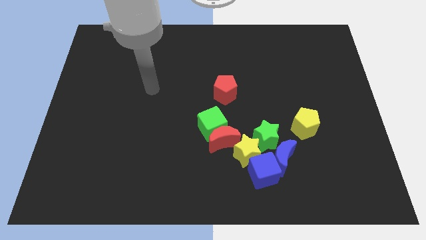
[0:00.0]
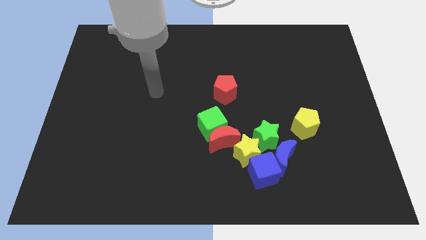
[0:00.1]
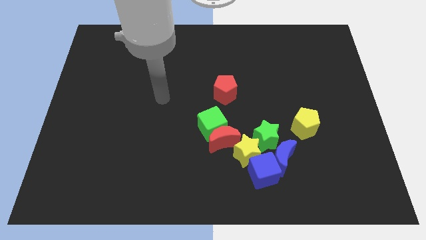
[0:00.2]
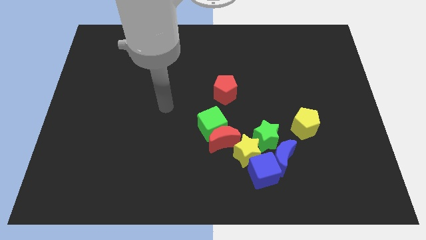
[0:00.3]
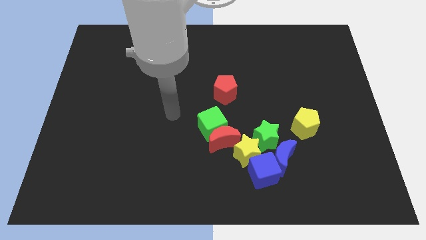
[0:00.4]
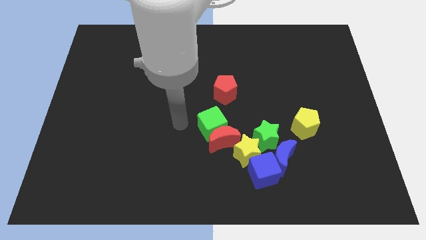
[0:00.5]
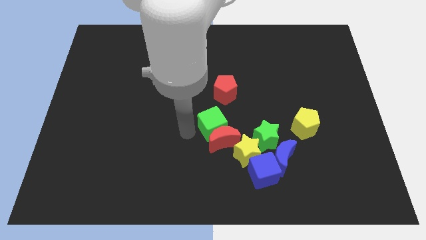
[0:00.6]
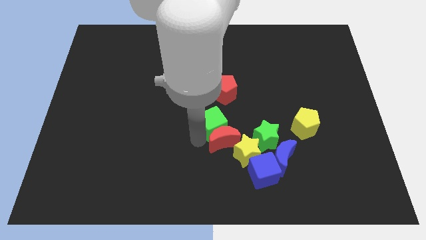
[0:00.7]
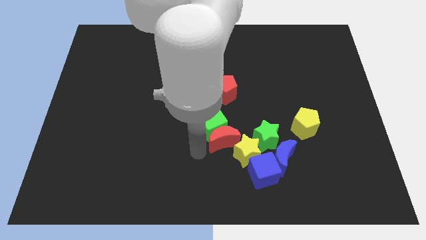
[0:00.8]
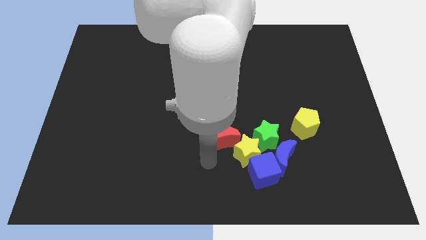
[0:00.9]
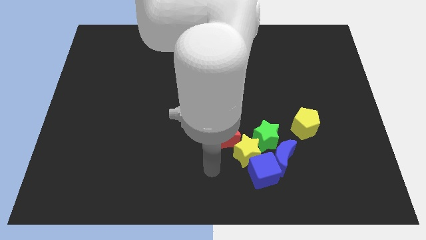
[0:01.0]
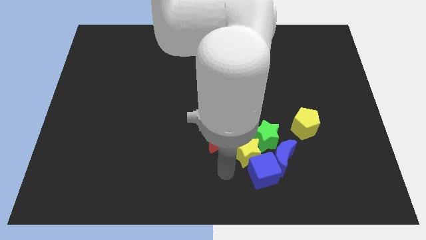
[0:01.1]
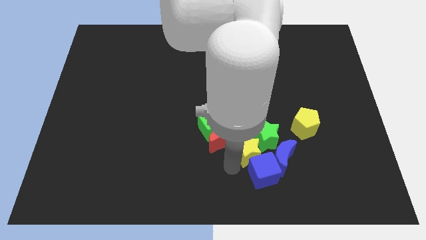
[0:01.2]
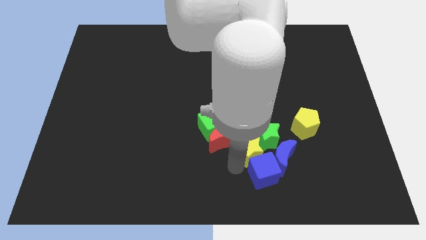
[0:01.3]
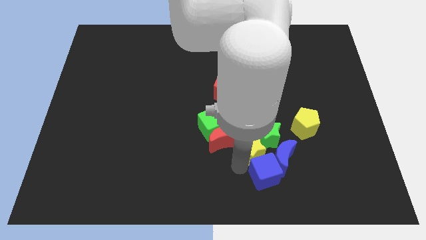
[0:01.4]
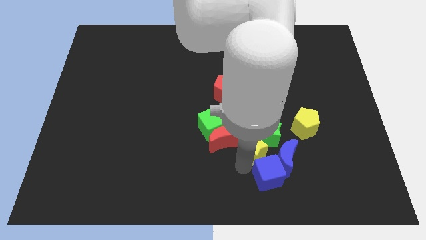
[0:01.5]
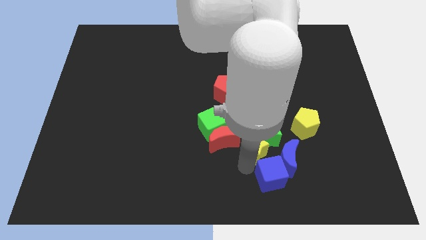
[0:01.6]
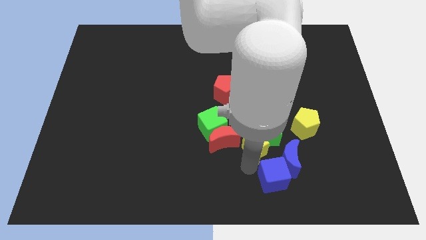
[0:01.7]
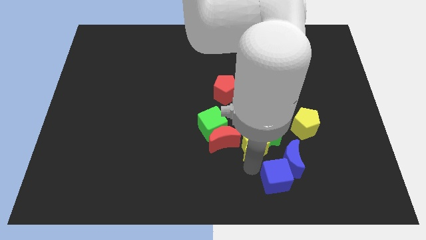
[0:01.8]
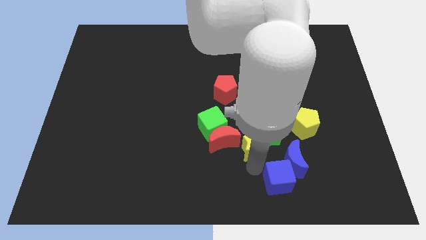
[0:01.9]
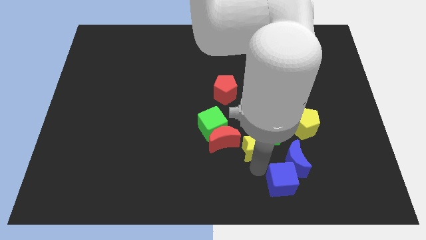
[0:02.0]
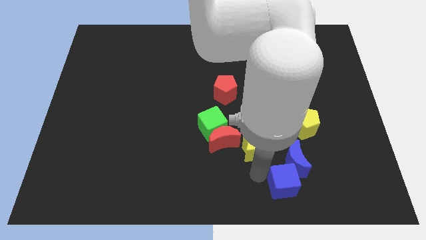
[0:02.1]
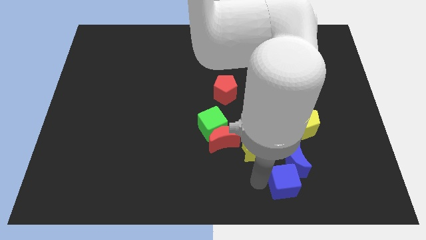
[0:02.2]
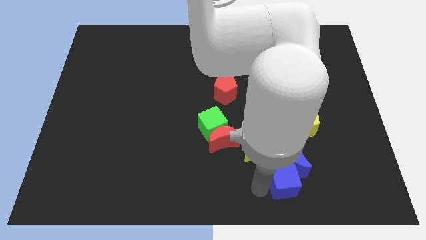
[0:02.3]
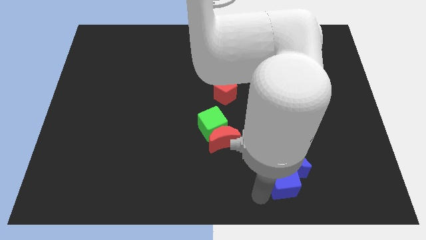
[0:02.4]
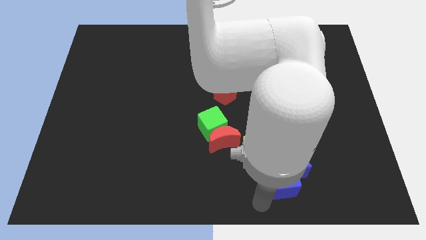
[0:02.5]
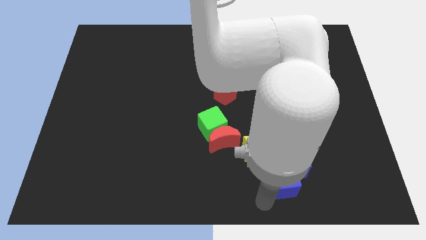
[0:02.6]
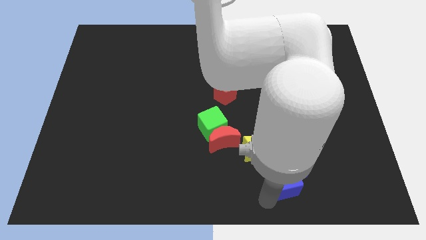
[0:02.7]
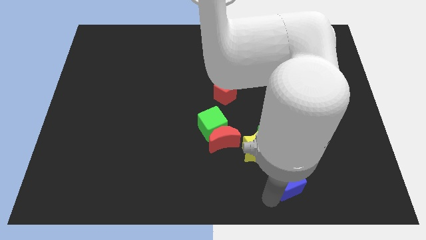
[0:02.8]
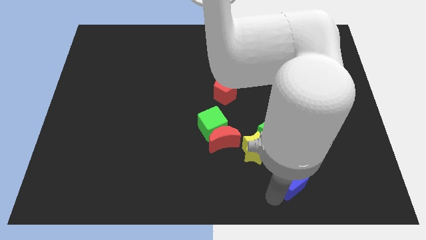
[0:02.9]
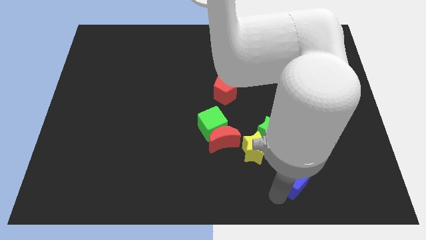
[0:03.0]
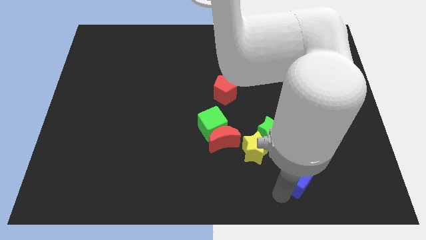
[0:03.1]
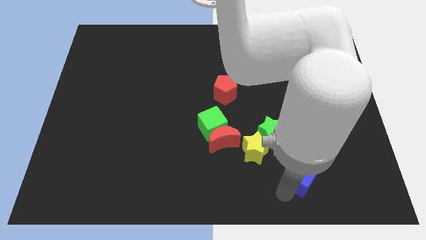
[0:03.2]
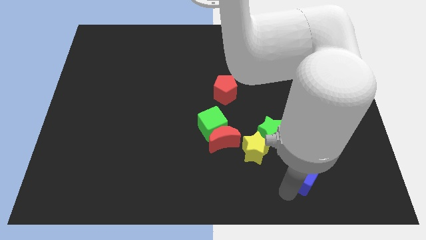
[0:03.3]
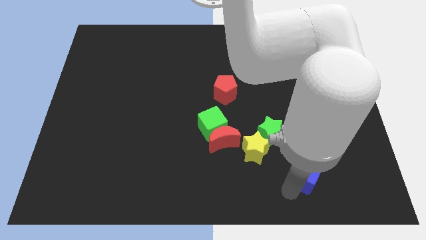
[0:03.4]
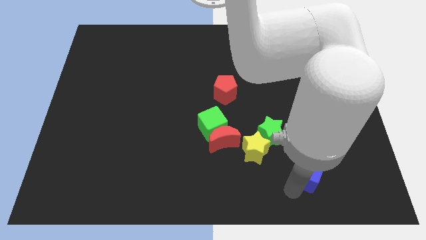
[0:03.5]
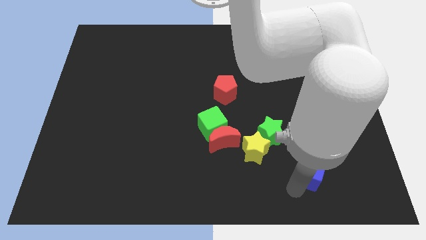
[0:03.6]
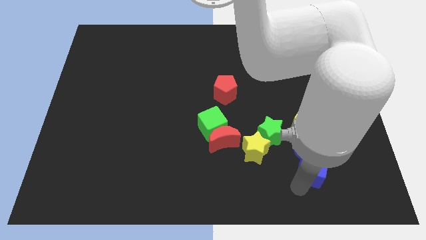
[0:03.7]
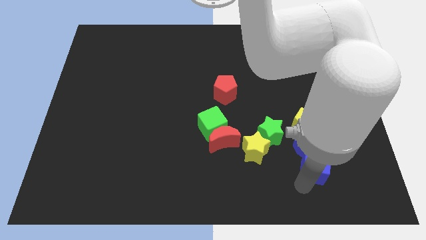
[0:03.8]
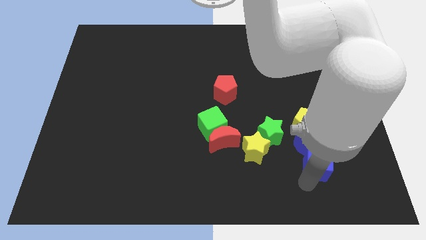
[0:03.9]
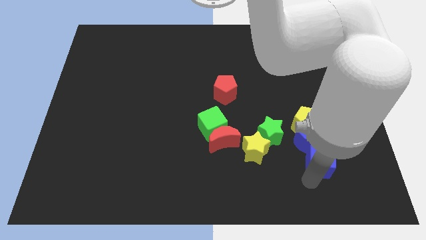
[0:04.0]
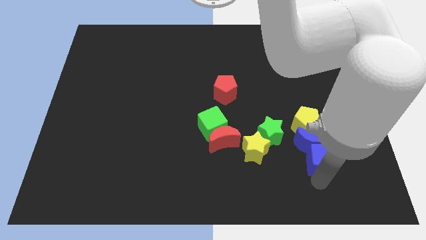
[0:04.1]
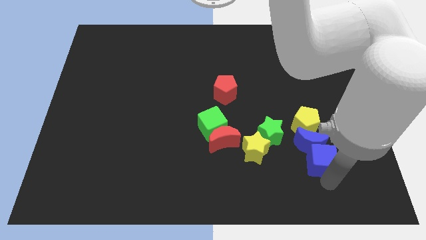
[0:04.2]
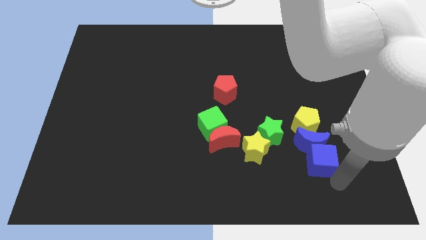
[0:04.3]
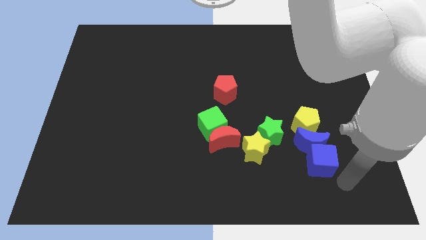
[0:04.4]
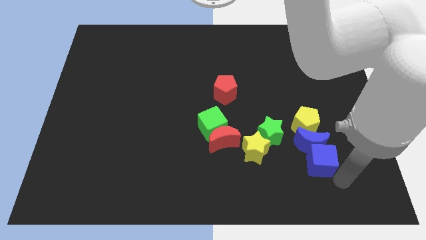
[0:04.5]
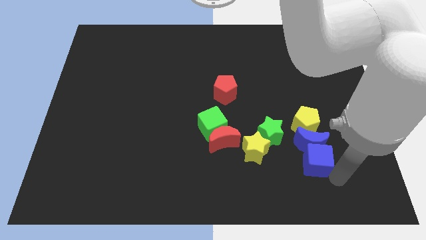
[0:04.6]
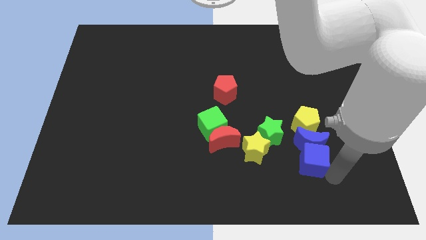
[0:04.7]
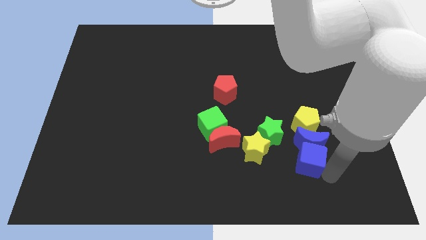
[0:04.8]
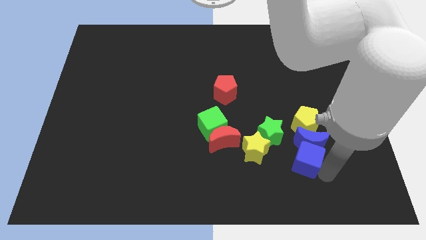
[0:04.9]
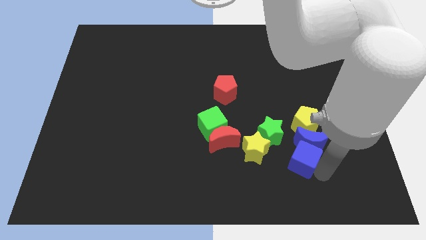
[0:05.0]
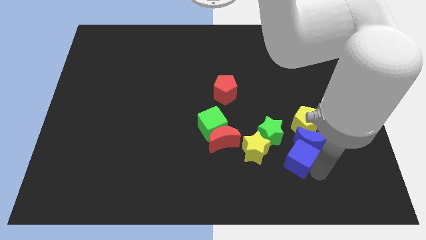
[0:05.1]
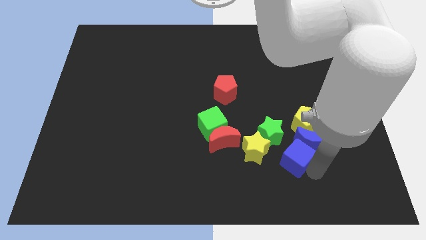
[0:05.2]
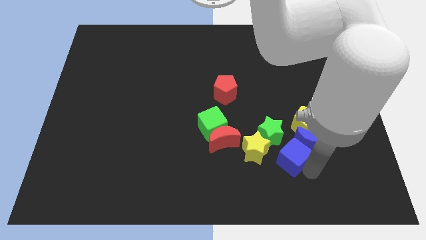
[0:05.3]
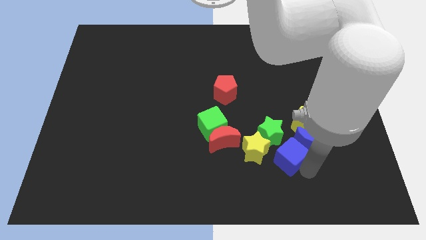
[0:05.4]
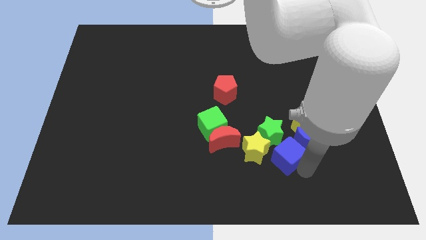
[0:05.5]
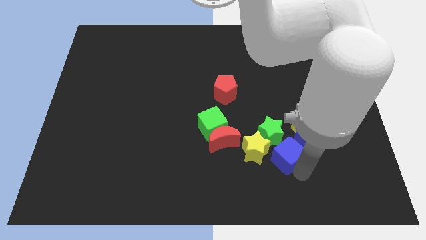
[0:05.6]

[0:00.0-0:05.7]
slide the blue cube next to the green star

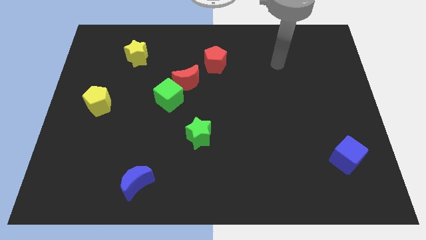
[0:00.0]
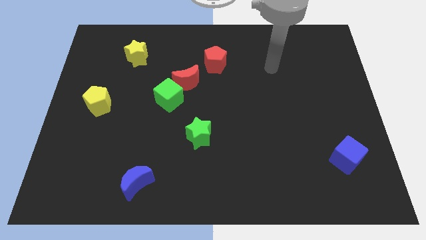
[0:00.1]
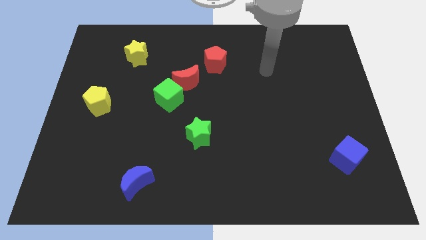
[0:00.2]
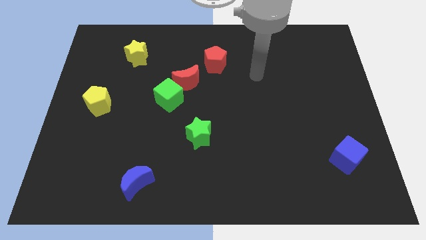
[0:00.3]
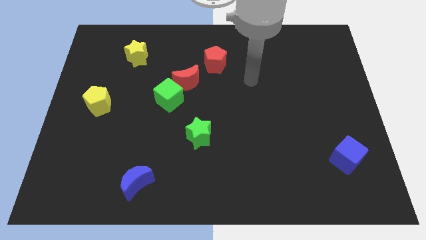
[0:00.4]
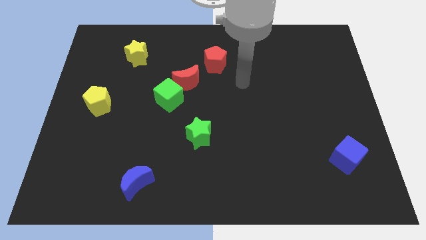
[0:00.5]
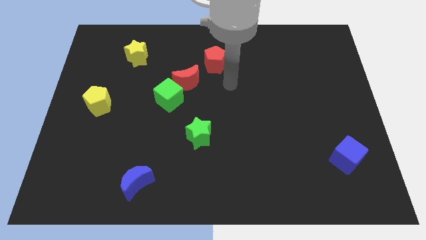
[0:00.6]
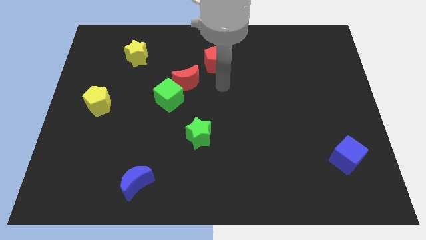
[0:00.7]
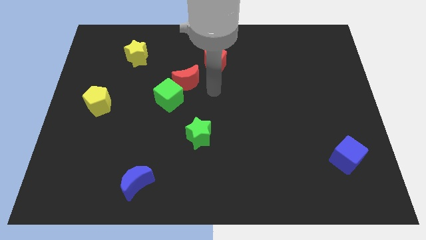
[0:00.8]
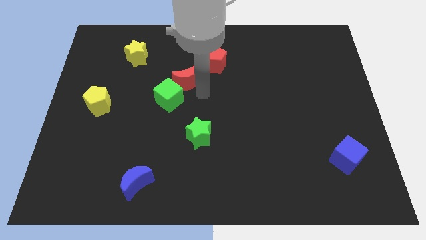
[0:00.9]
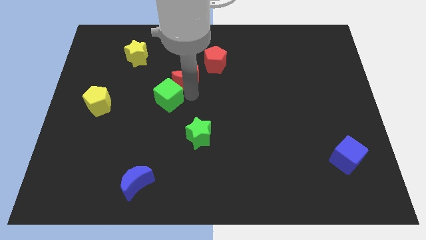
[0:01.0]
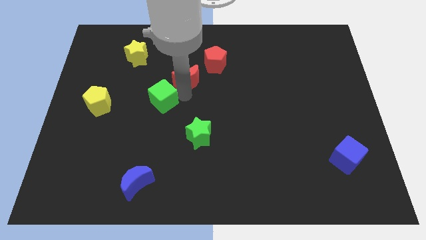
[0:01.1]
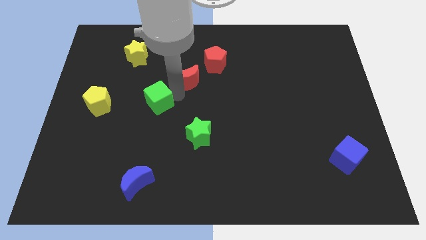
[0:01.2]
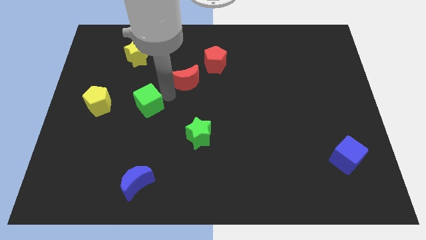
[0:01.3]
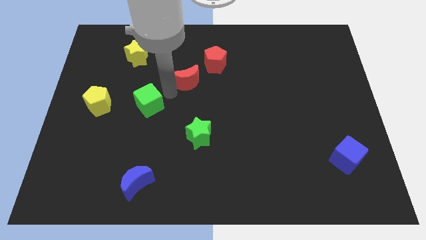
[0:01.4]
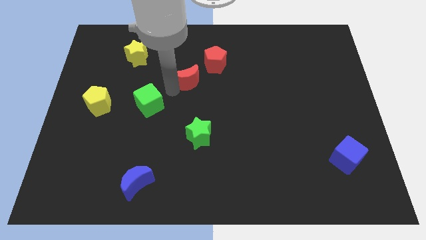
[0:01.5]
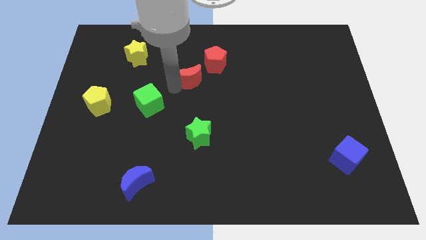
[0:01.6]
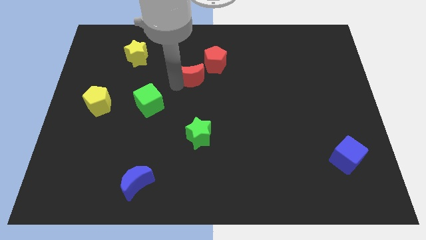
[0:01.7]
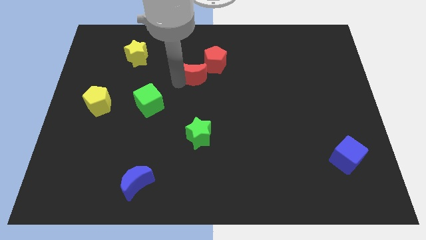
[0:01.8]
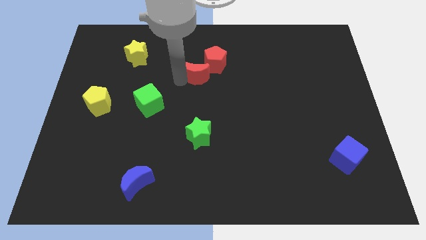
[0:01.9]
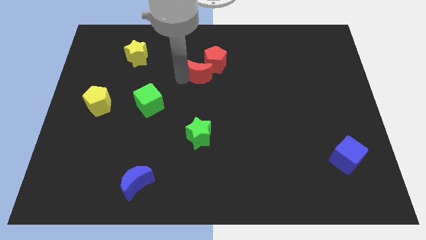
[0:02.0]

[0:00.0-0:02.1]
slide the red moon towards the red pentagon
